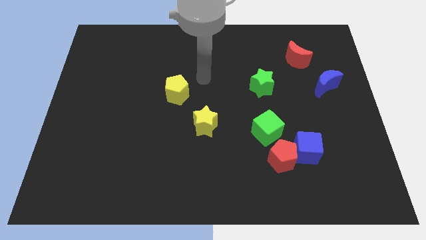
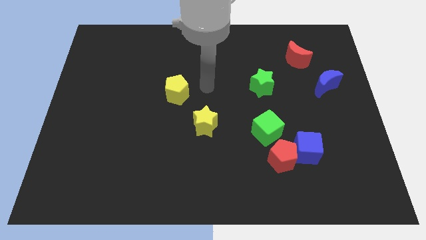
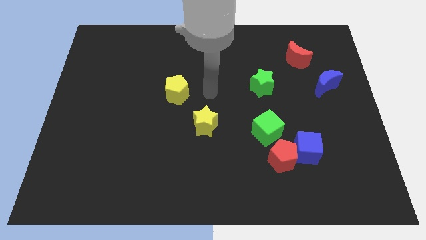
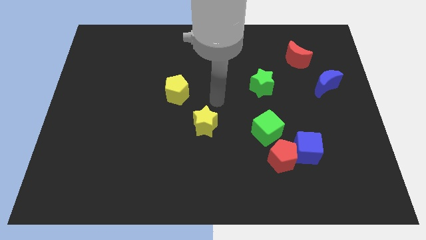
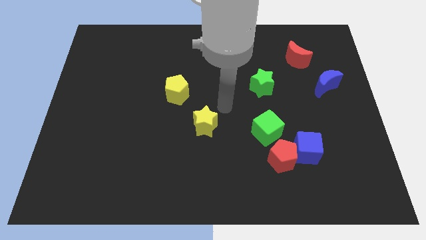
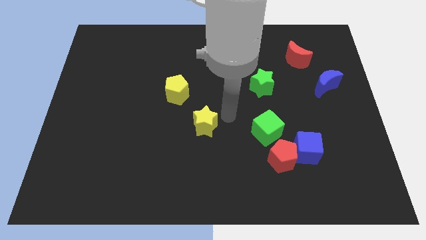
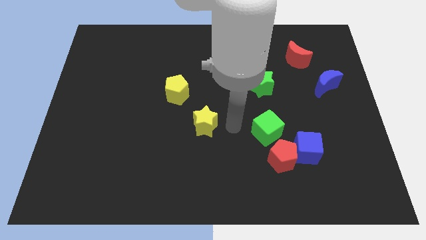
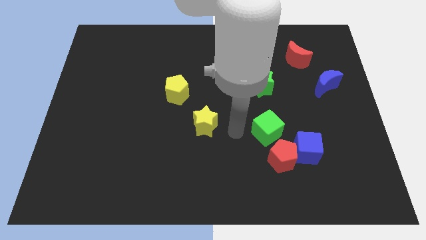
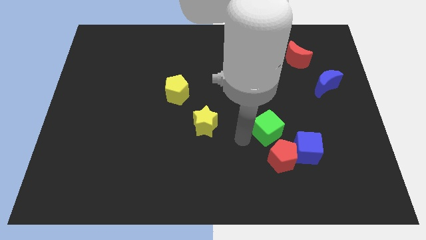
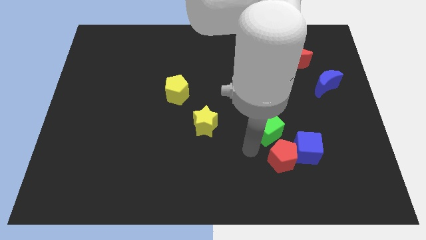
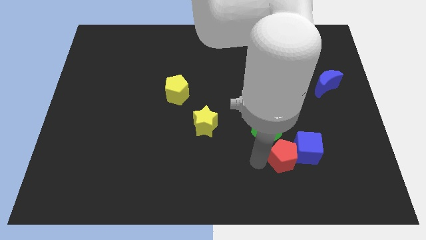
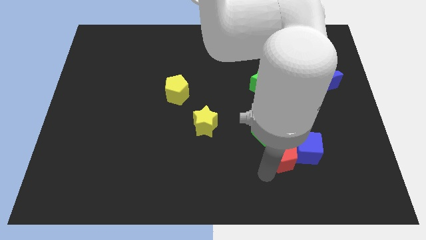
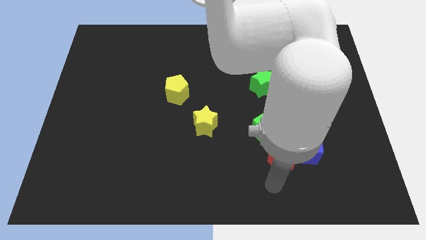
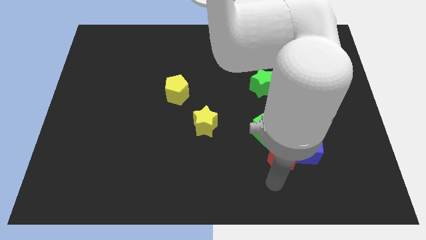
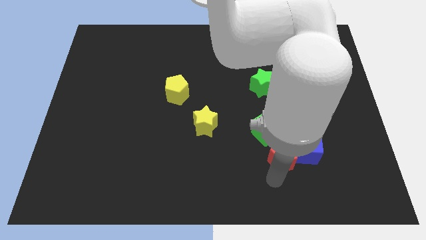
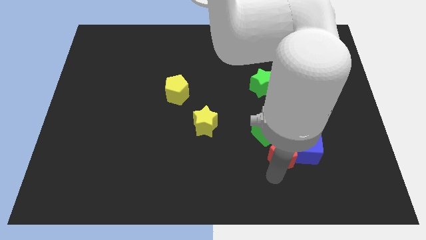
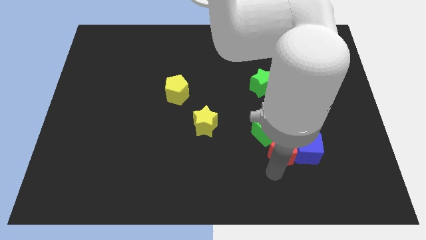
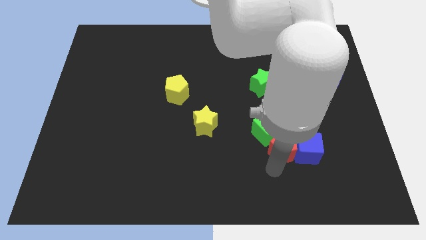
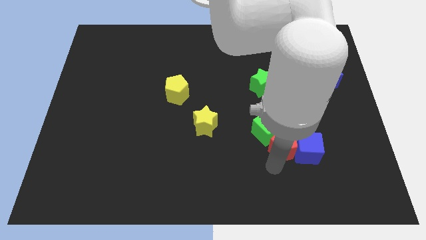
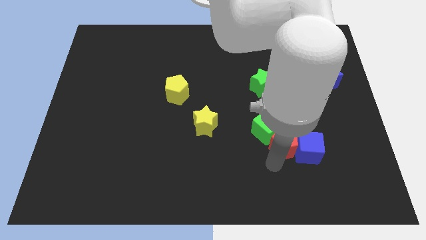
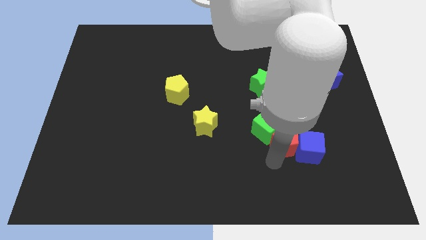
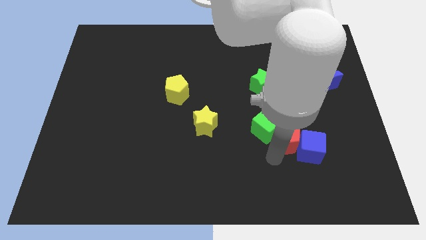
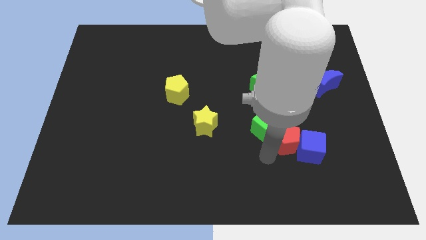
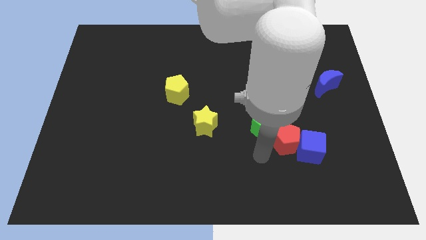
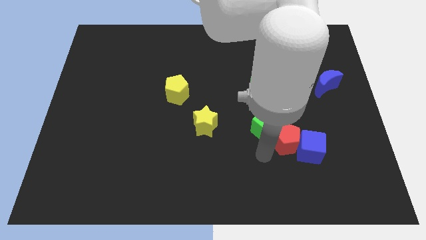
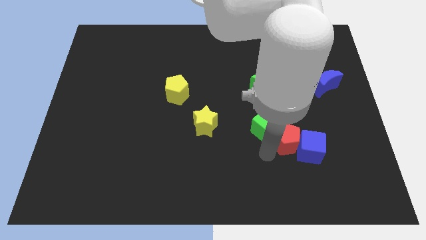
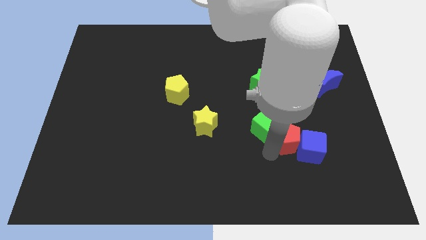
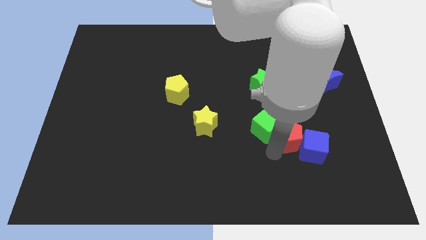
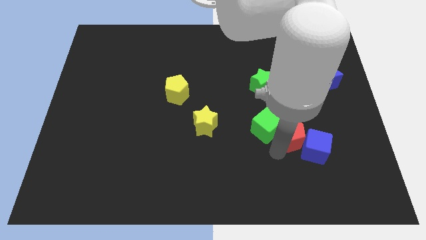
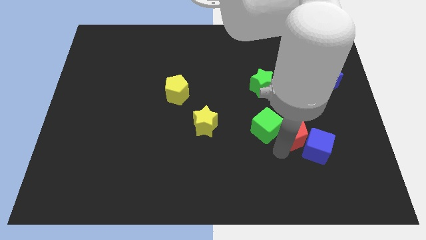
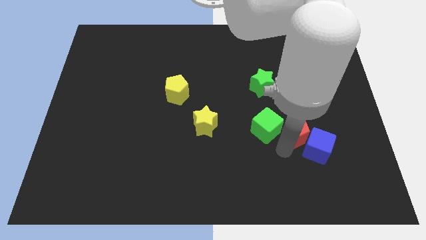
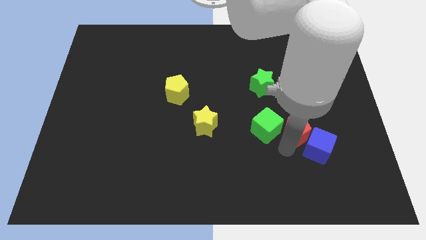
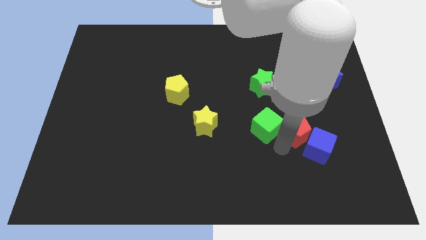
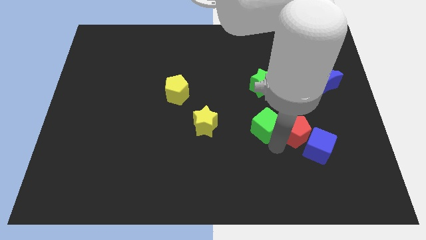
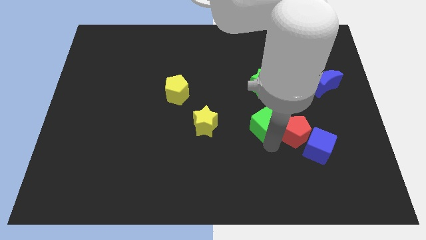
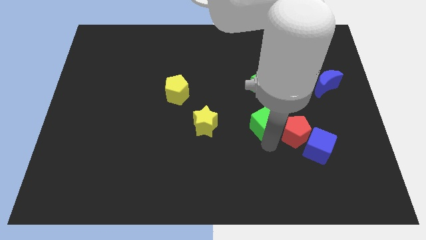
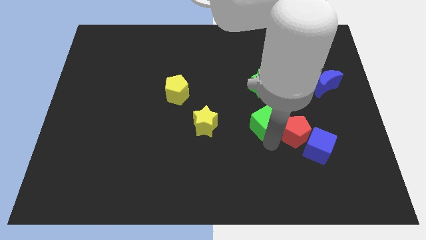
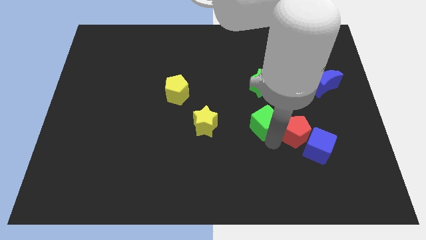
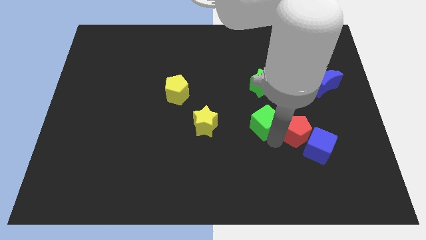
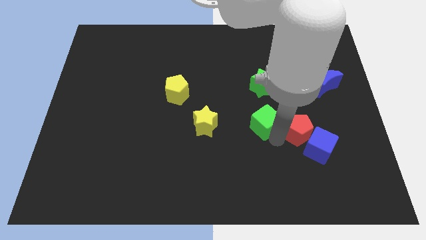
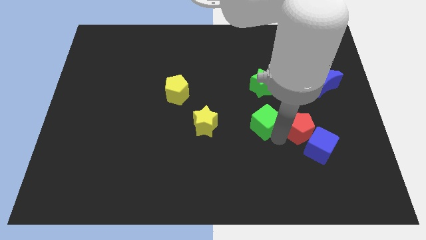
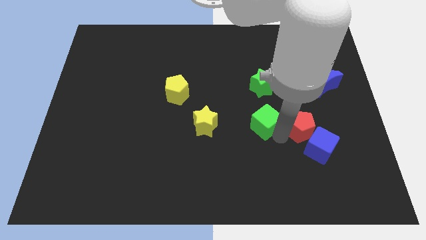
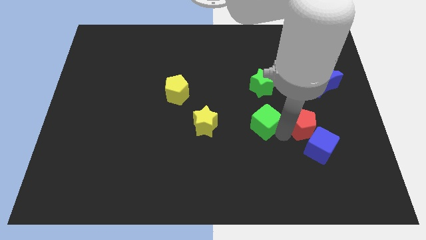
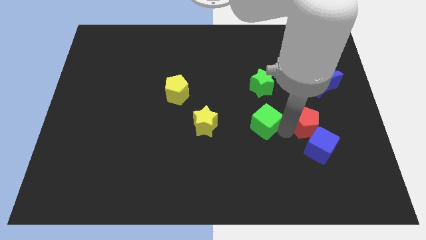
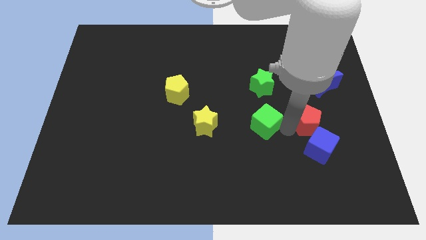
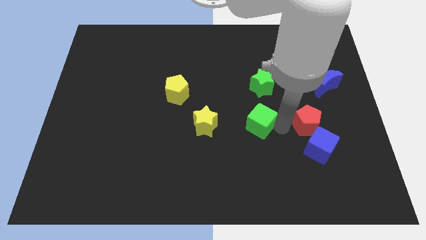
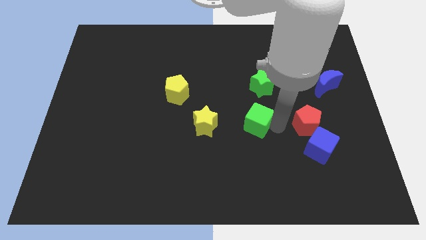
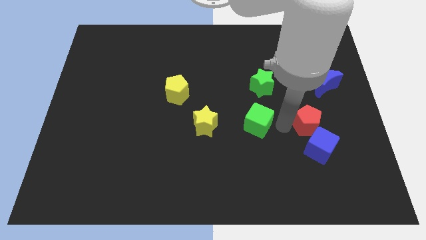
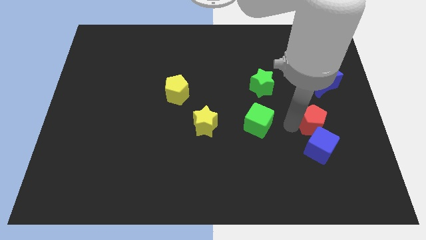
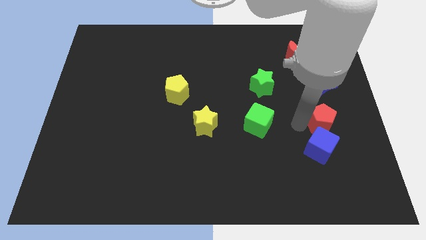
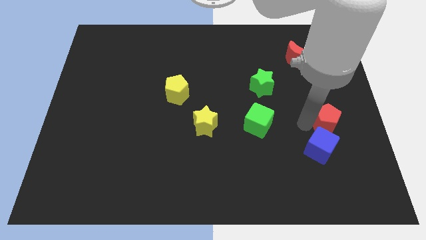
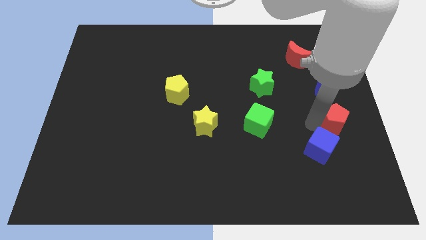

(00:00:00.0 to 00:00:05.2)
put the red pentagon to the right side

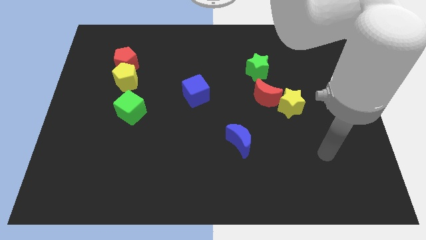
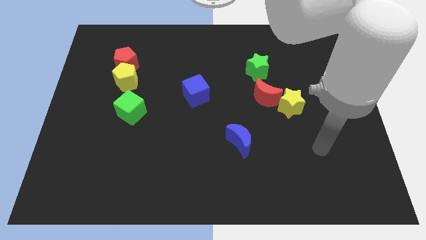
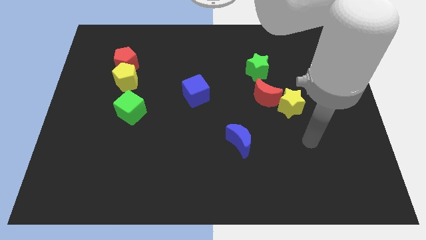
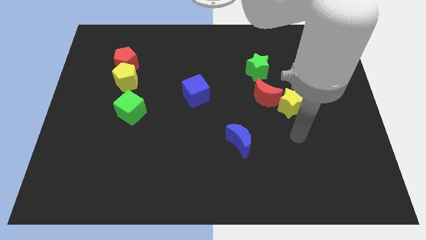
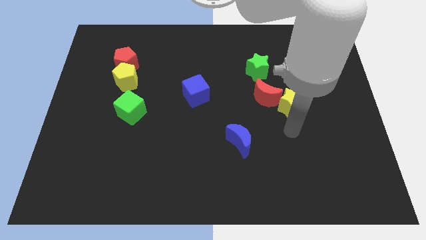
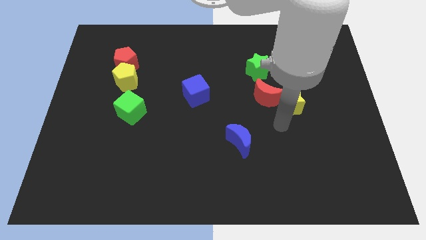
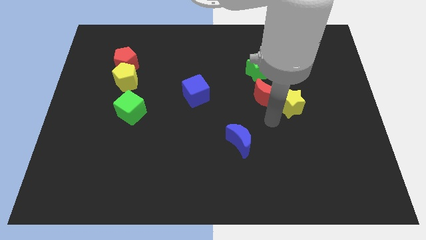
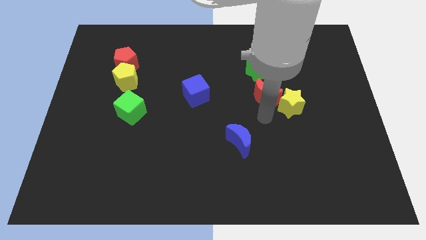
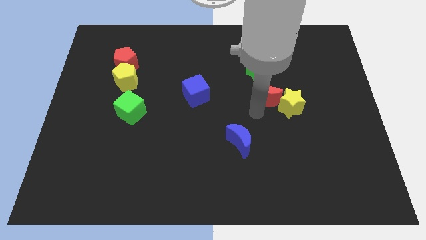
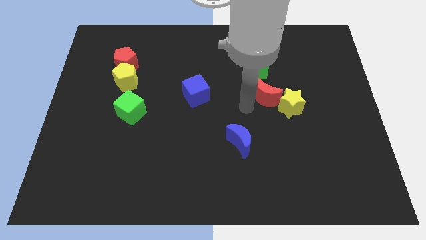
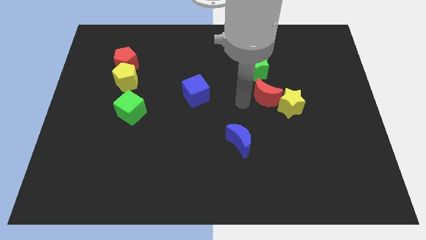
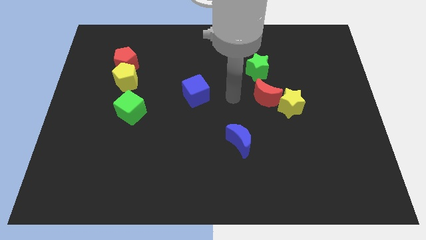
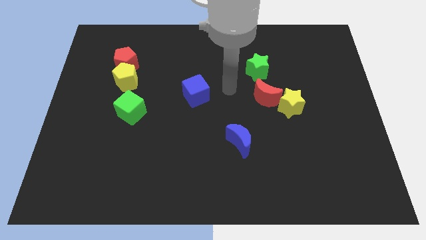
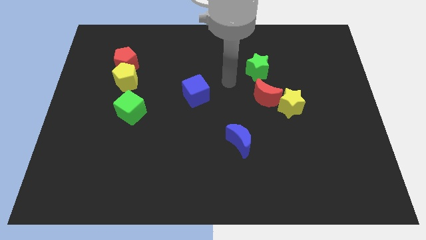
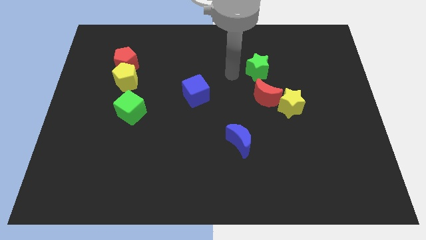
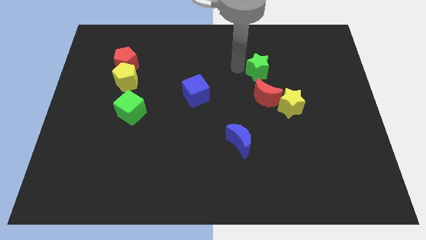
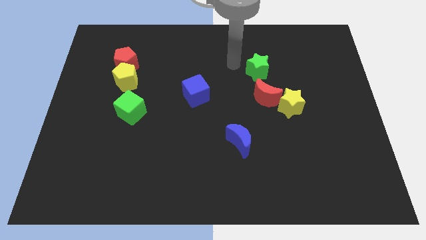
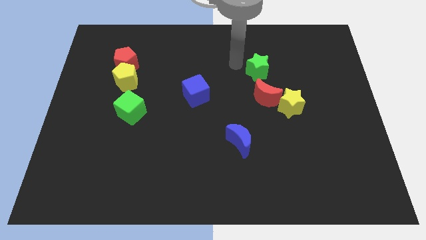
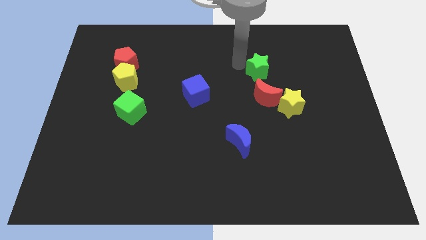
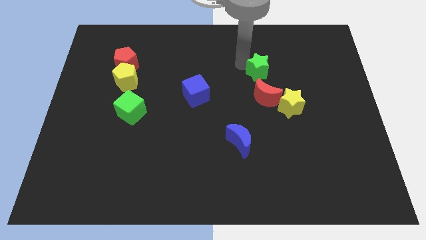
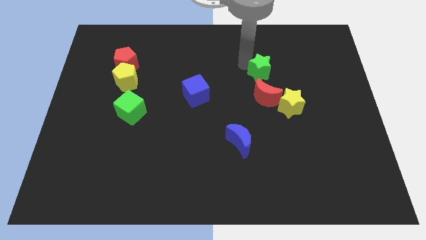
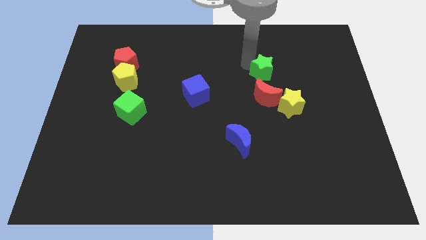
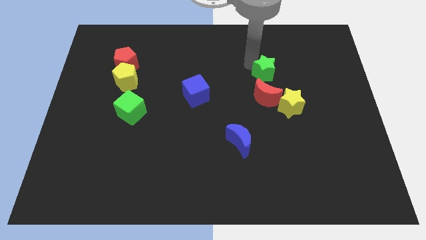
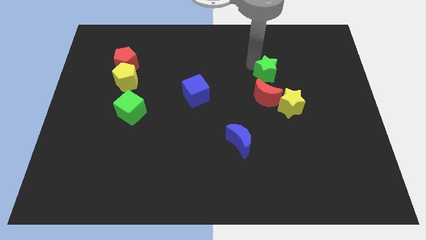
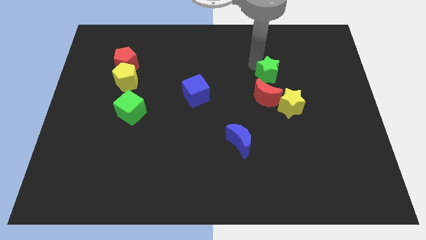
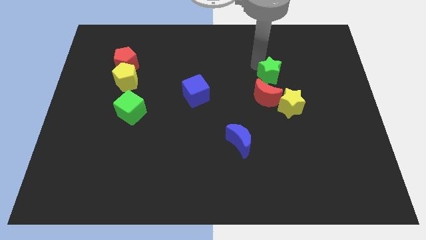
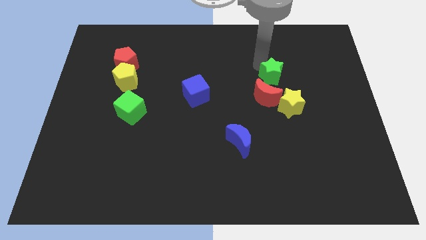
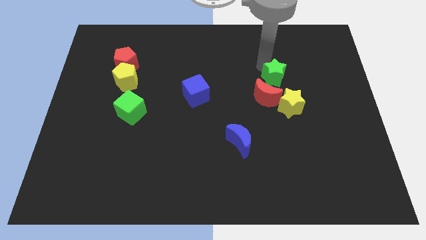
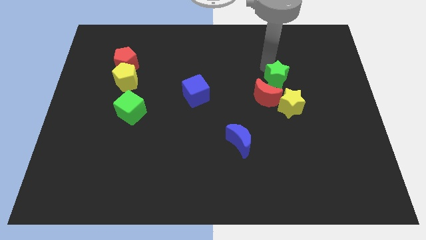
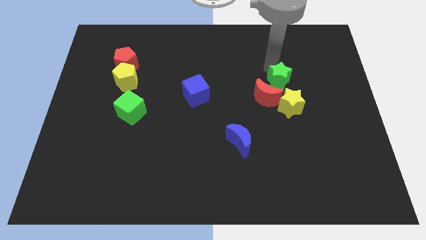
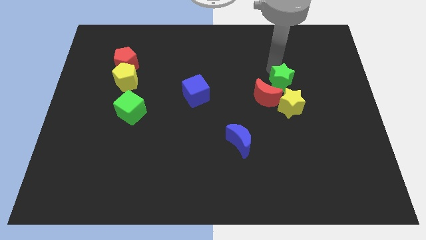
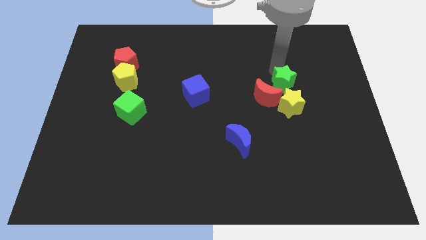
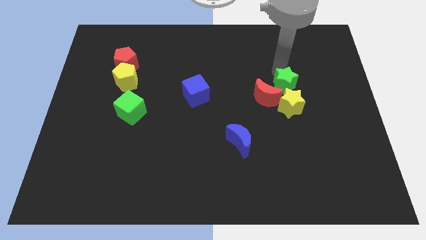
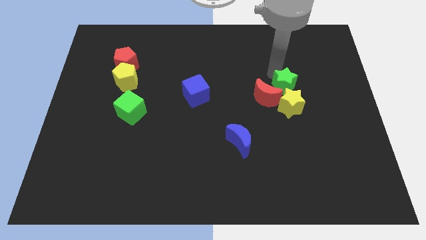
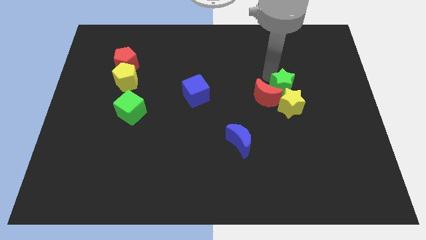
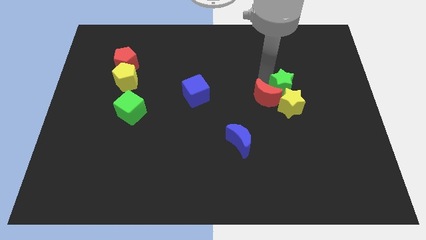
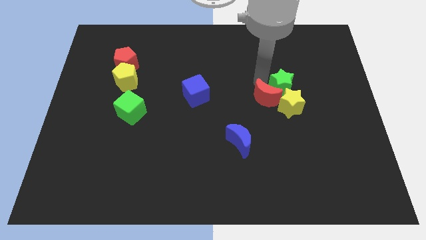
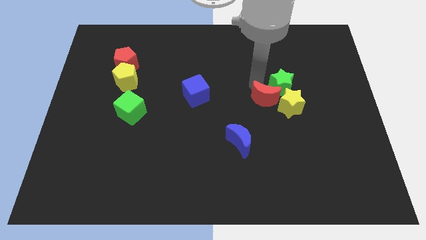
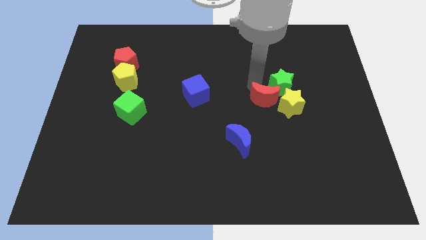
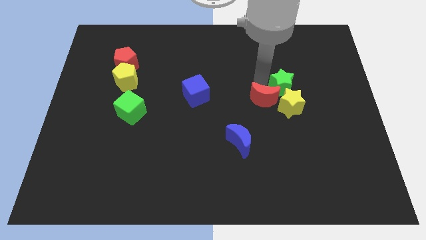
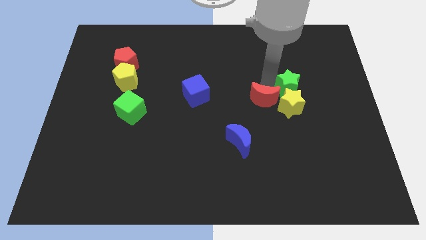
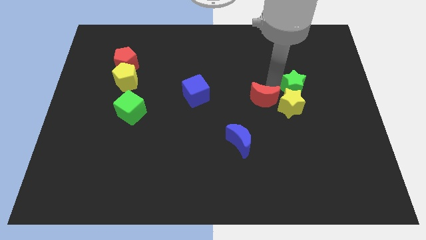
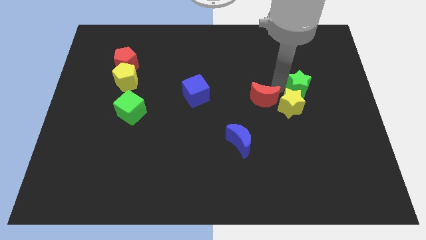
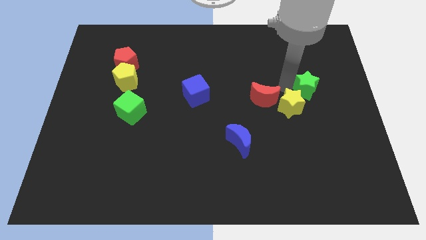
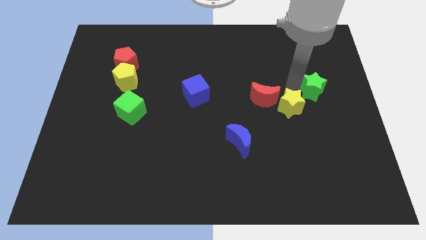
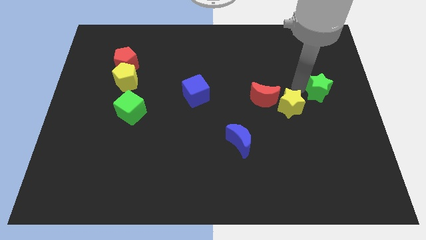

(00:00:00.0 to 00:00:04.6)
put the green star to the center right
